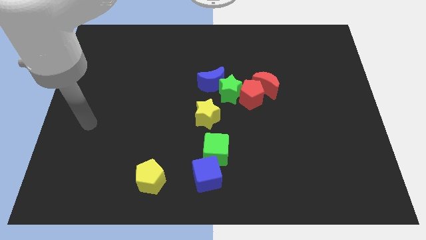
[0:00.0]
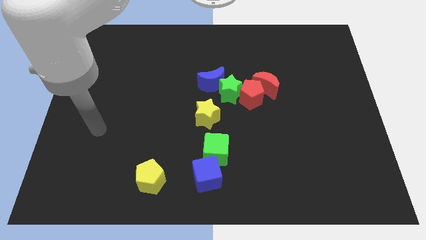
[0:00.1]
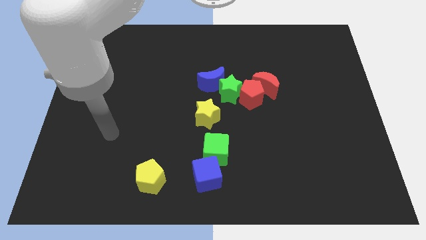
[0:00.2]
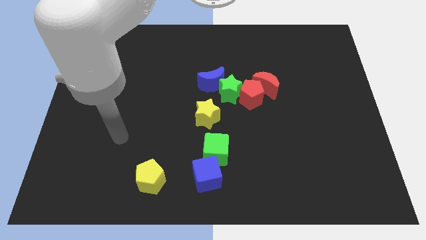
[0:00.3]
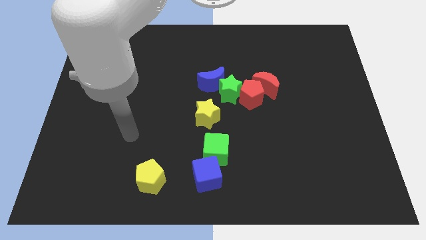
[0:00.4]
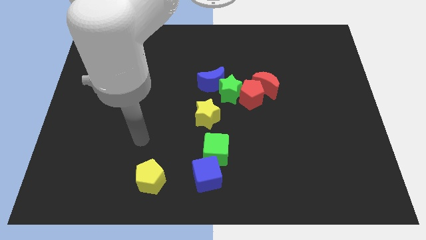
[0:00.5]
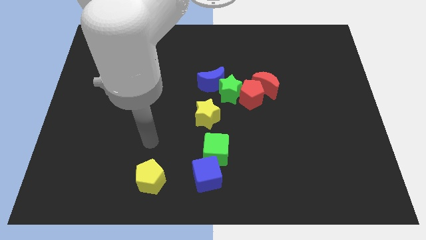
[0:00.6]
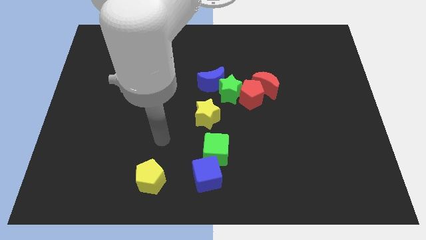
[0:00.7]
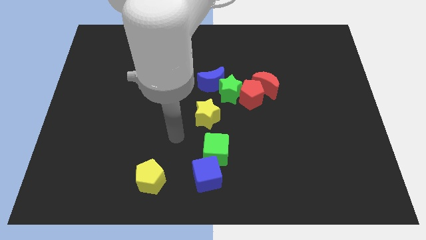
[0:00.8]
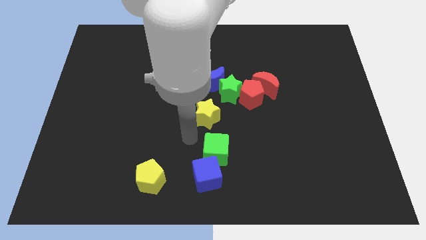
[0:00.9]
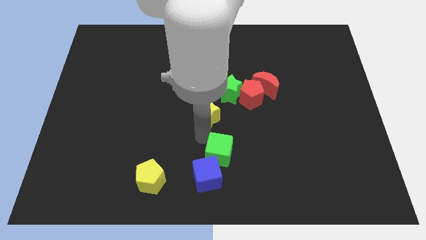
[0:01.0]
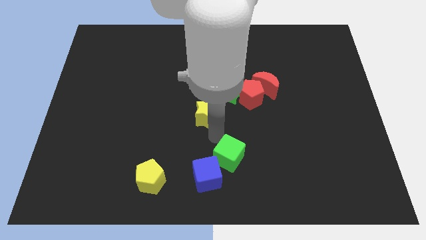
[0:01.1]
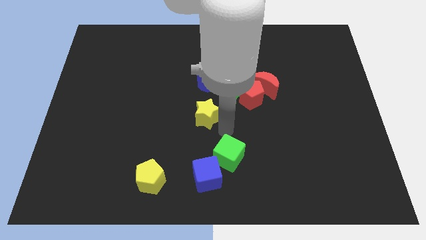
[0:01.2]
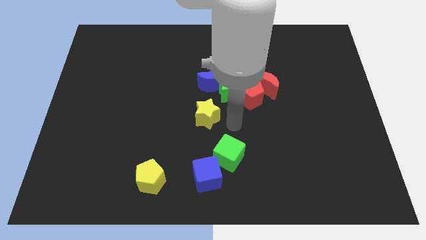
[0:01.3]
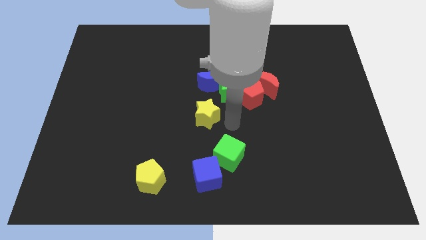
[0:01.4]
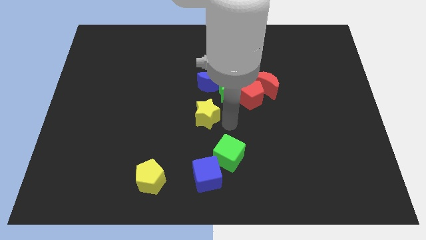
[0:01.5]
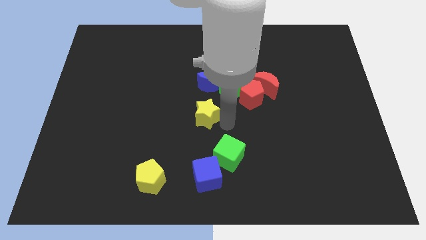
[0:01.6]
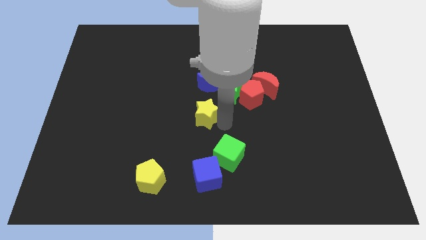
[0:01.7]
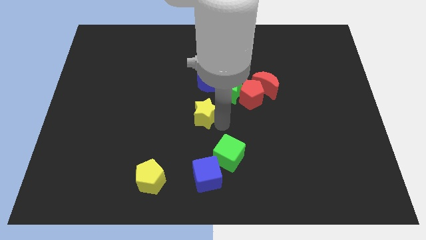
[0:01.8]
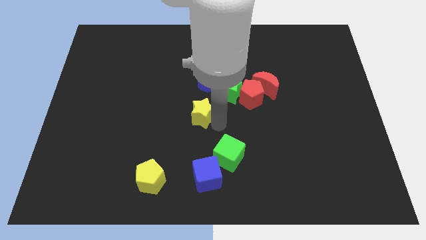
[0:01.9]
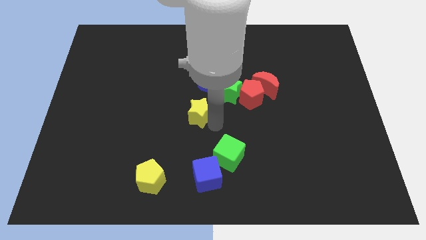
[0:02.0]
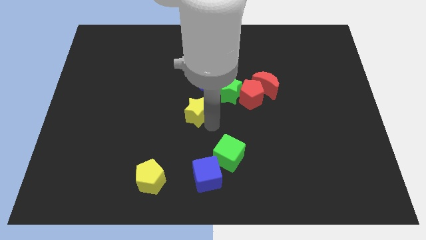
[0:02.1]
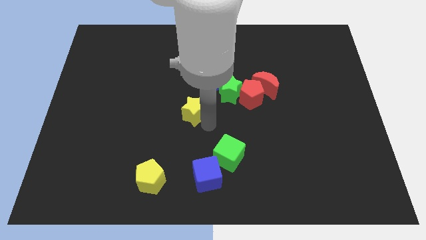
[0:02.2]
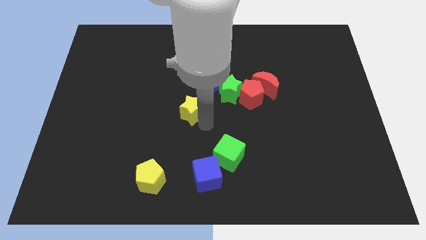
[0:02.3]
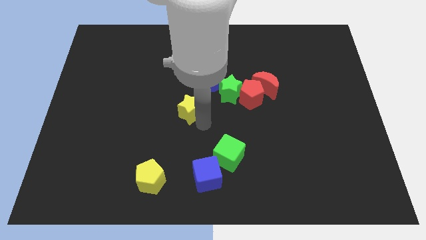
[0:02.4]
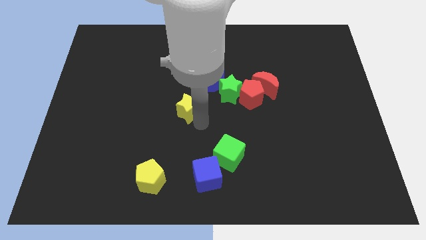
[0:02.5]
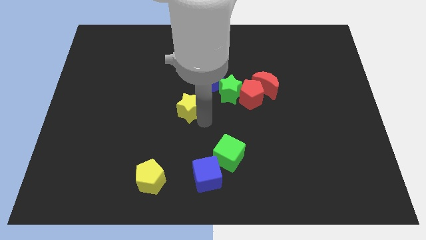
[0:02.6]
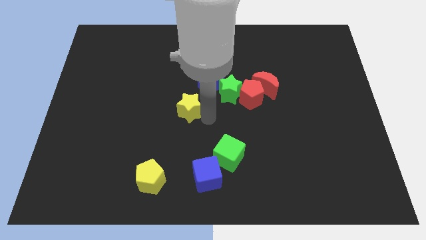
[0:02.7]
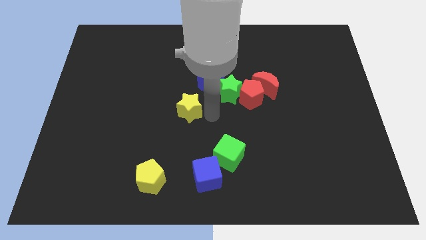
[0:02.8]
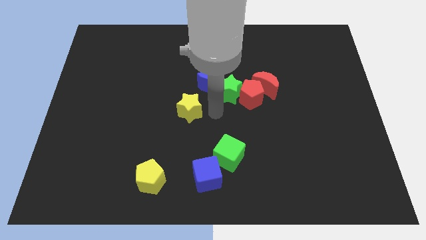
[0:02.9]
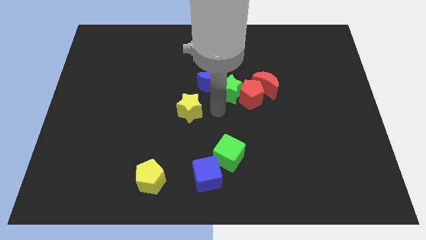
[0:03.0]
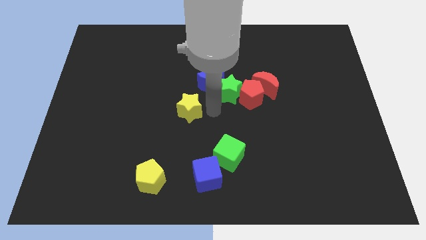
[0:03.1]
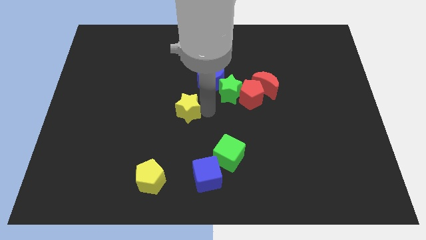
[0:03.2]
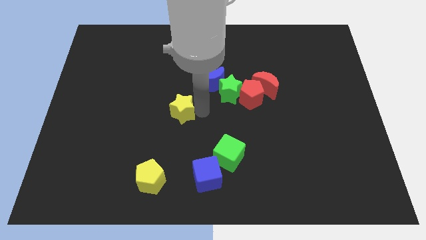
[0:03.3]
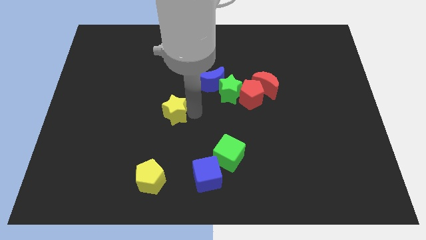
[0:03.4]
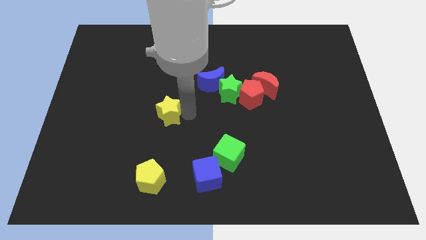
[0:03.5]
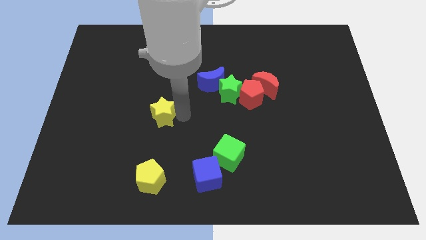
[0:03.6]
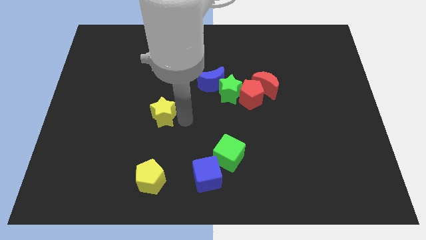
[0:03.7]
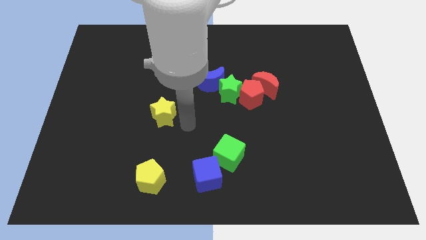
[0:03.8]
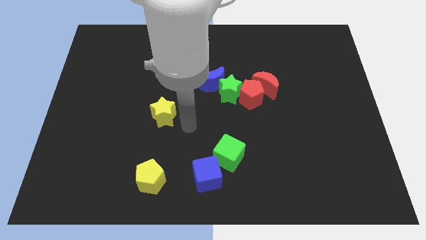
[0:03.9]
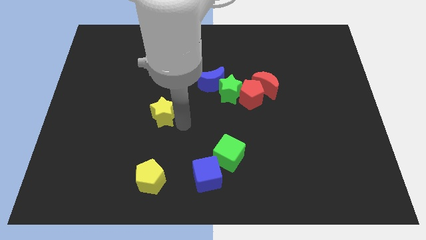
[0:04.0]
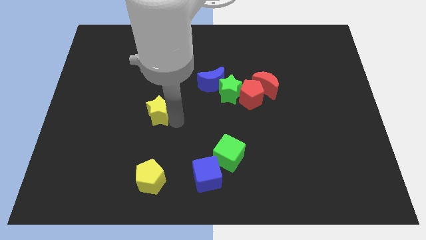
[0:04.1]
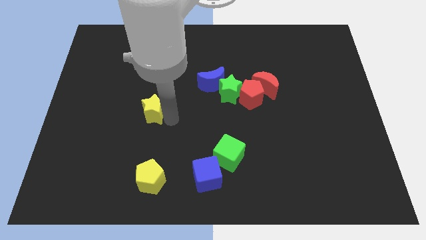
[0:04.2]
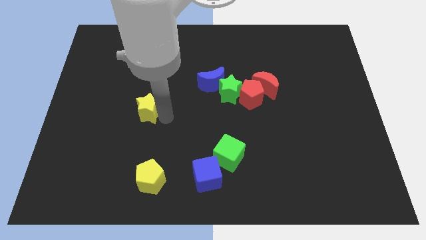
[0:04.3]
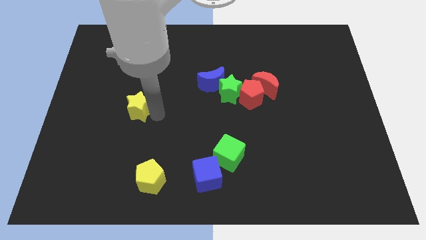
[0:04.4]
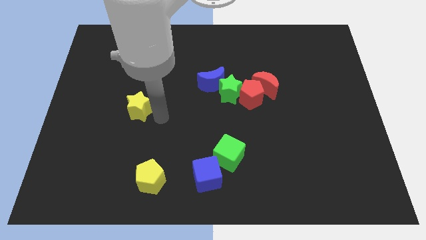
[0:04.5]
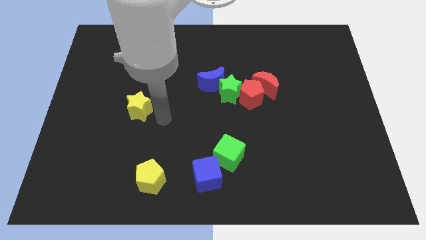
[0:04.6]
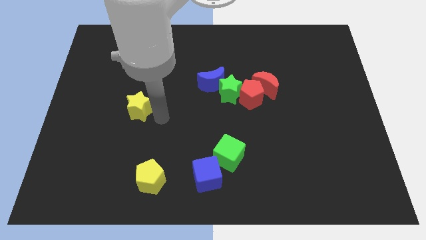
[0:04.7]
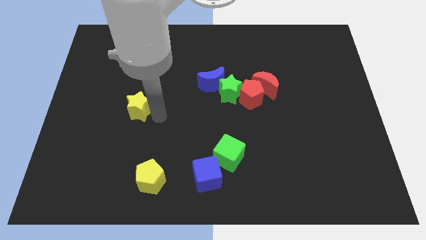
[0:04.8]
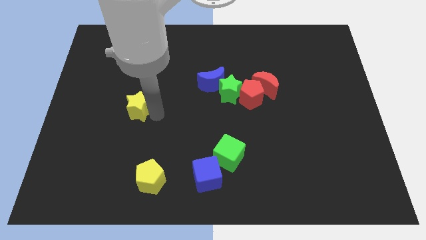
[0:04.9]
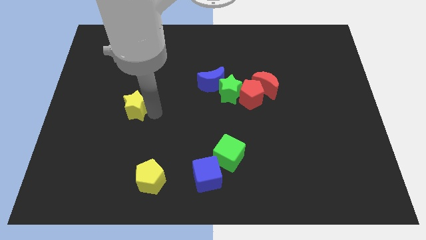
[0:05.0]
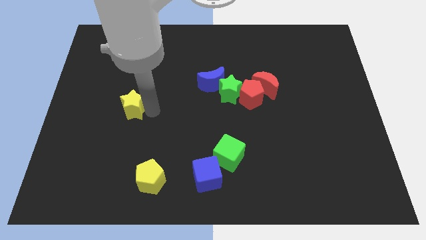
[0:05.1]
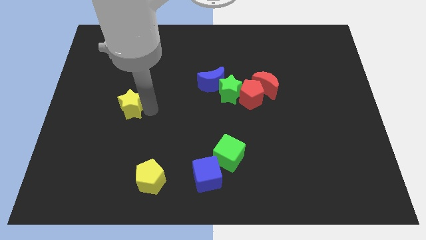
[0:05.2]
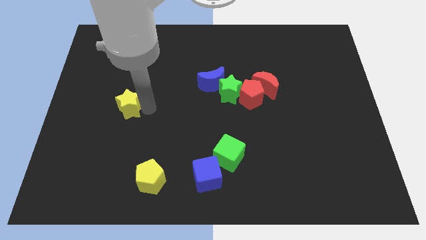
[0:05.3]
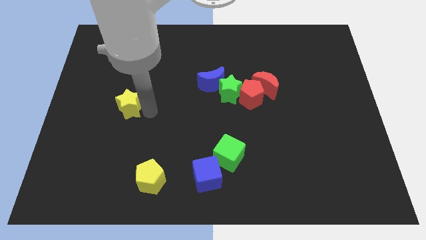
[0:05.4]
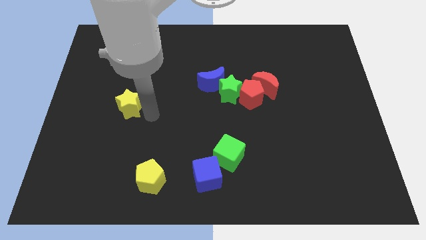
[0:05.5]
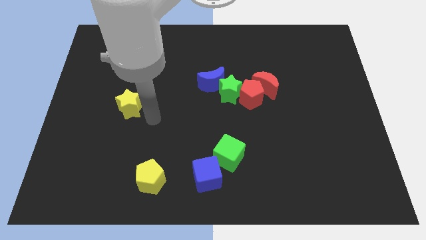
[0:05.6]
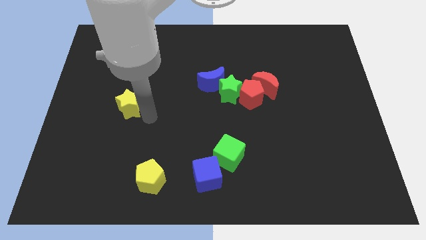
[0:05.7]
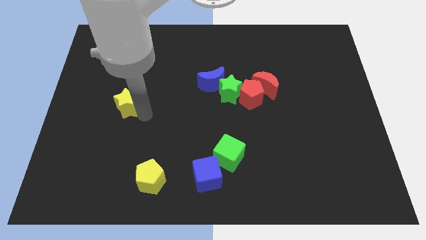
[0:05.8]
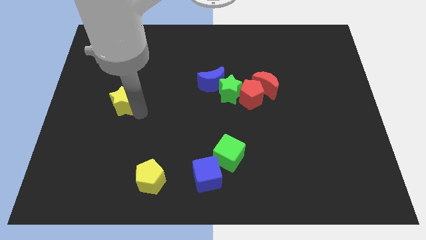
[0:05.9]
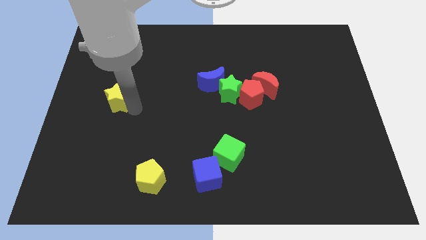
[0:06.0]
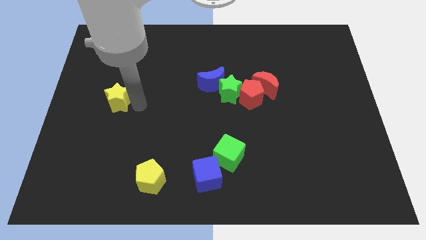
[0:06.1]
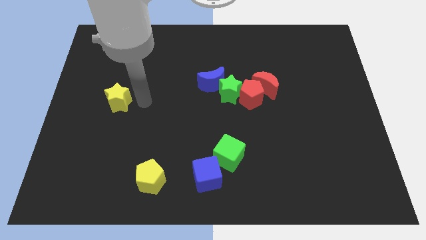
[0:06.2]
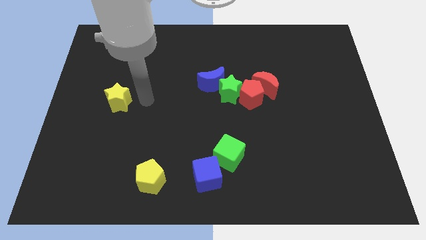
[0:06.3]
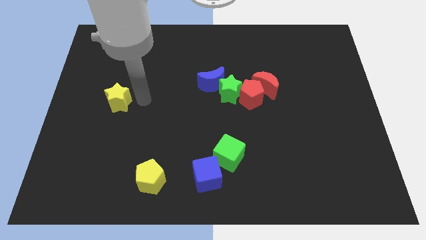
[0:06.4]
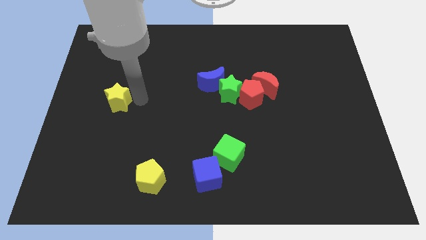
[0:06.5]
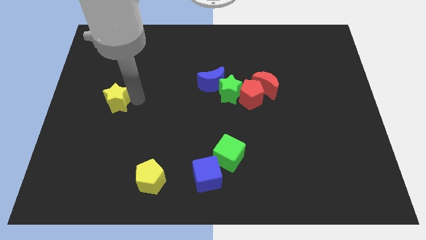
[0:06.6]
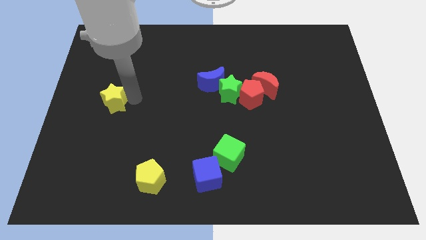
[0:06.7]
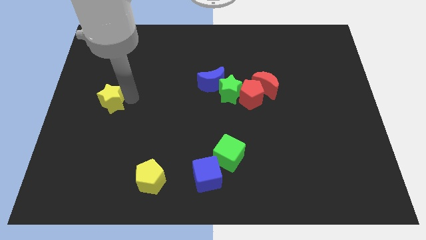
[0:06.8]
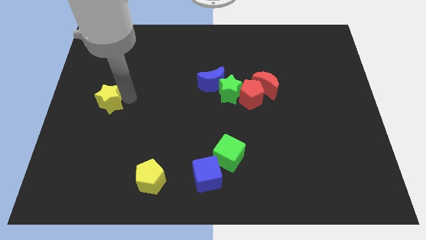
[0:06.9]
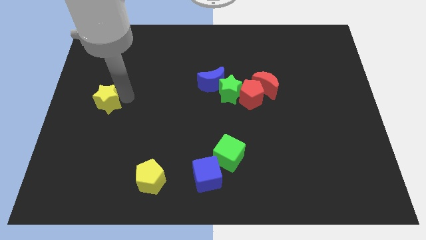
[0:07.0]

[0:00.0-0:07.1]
move the yellow star to the left side of the board
